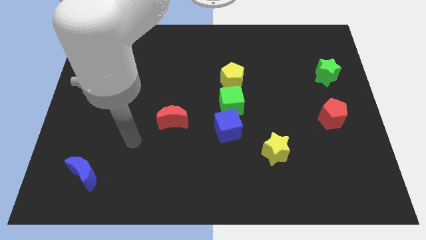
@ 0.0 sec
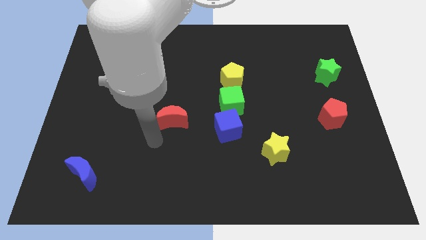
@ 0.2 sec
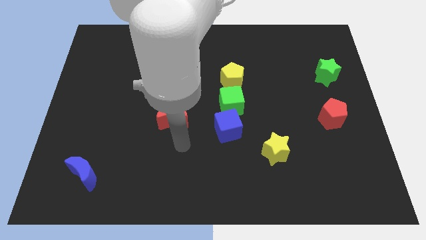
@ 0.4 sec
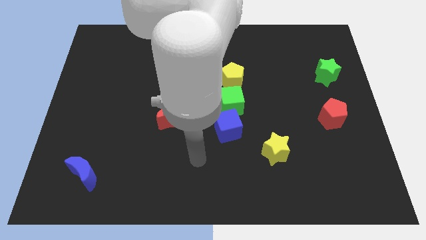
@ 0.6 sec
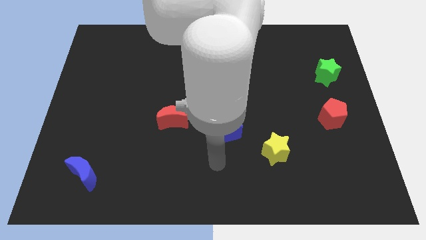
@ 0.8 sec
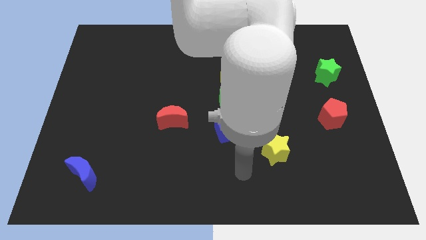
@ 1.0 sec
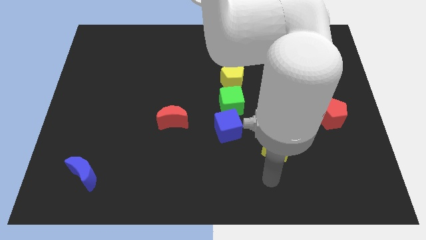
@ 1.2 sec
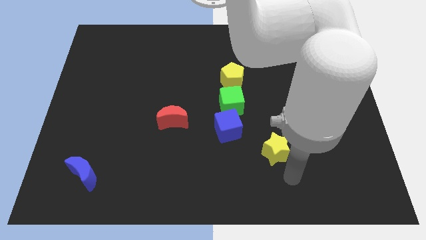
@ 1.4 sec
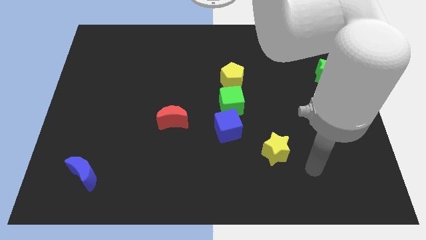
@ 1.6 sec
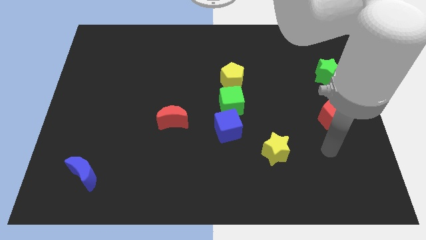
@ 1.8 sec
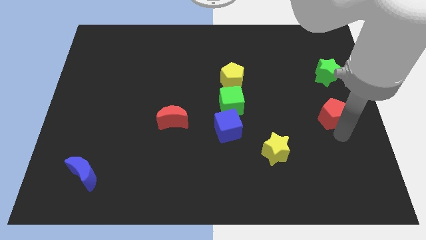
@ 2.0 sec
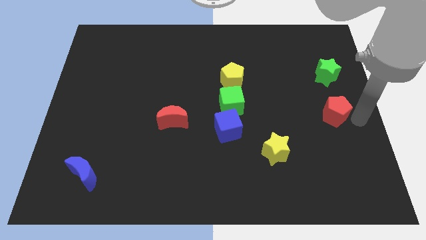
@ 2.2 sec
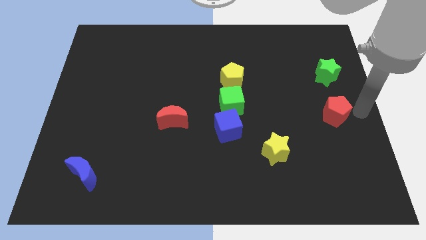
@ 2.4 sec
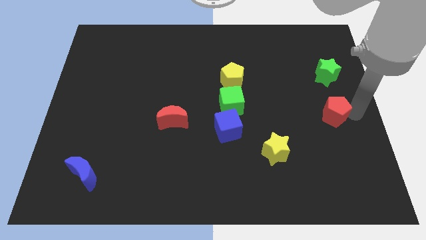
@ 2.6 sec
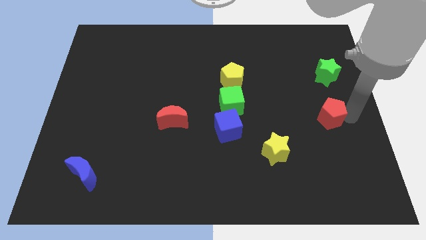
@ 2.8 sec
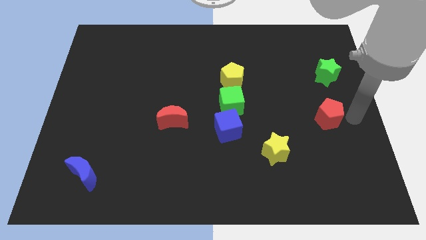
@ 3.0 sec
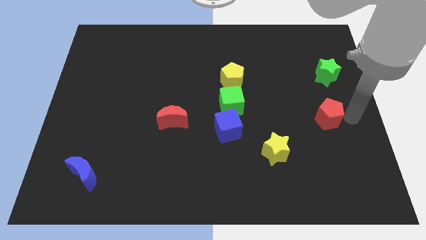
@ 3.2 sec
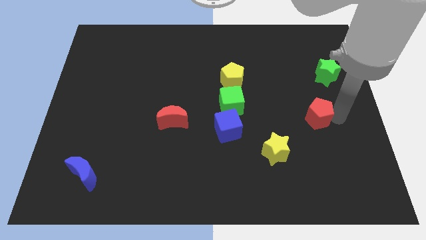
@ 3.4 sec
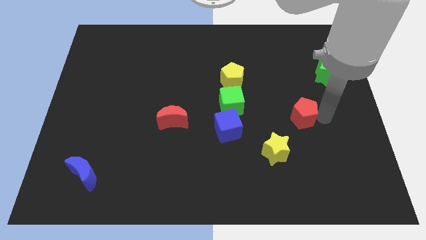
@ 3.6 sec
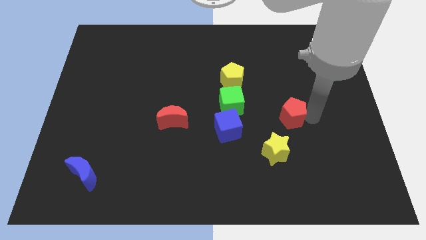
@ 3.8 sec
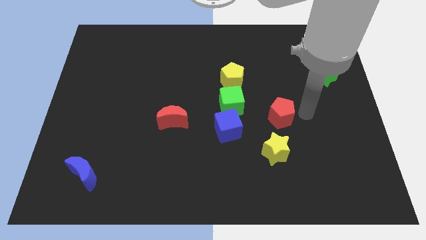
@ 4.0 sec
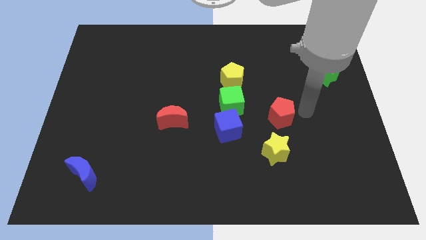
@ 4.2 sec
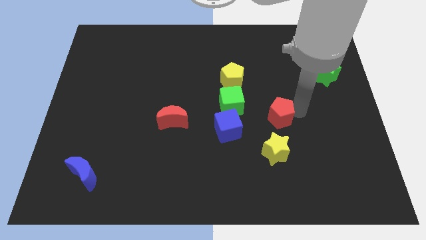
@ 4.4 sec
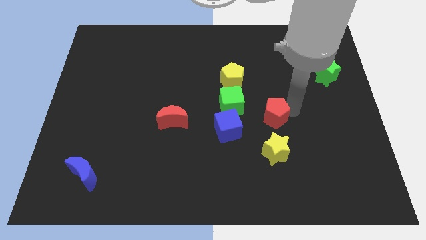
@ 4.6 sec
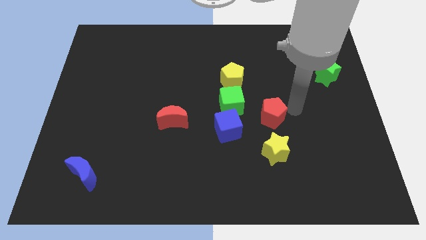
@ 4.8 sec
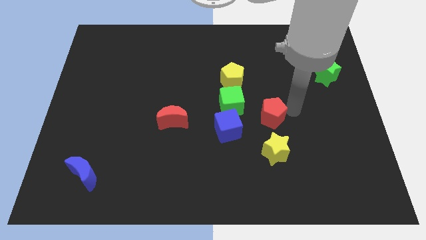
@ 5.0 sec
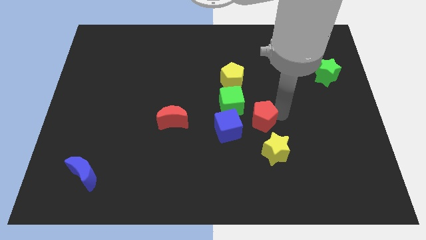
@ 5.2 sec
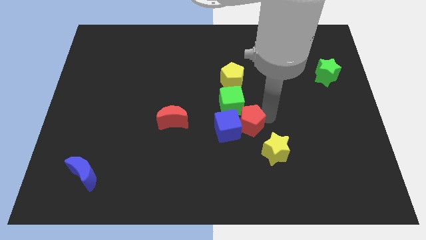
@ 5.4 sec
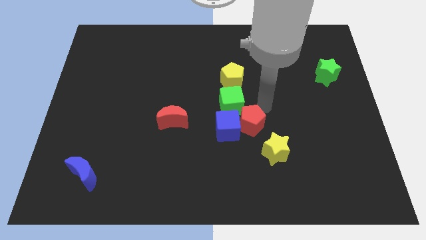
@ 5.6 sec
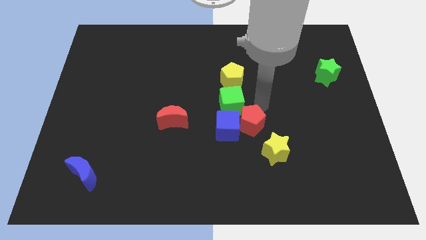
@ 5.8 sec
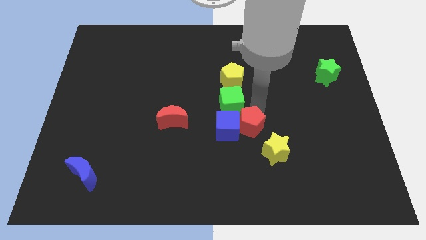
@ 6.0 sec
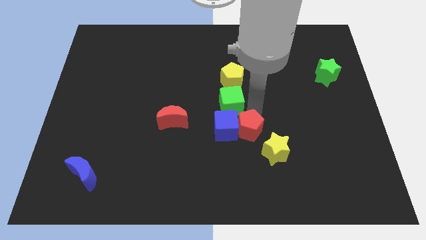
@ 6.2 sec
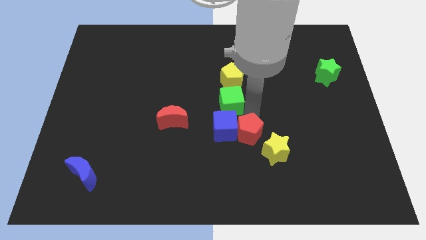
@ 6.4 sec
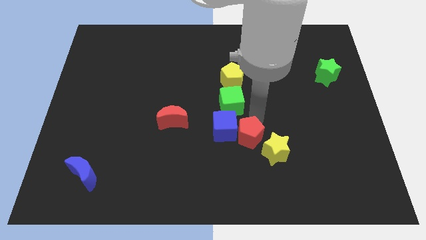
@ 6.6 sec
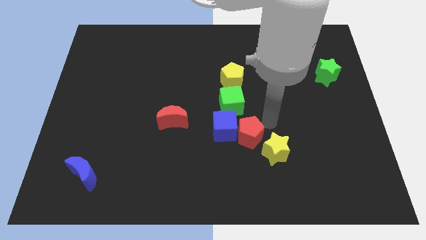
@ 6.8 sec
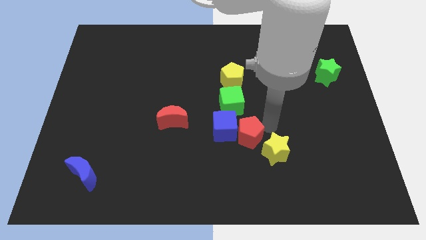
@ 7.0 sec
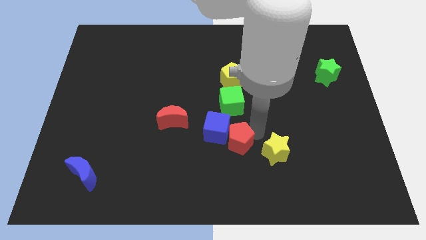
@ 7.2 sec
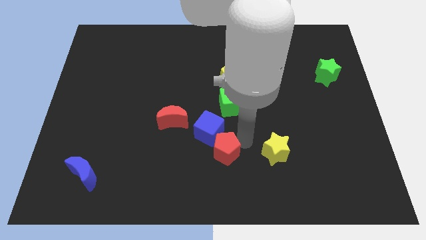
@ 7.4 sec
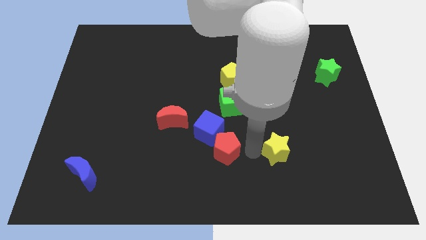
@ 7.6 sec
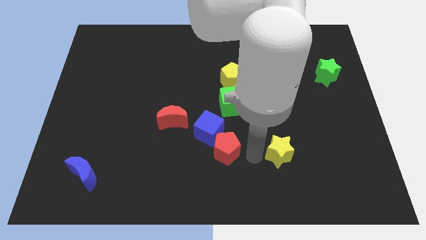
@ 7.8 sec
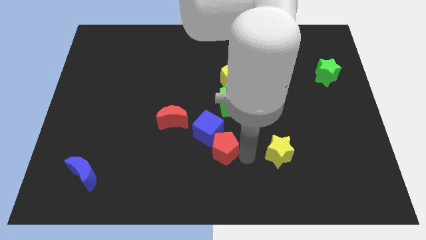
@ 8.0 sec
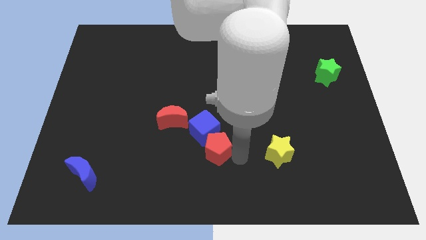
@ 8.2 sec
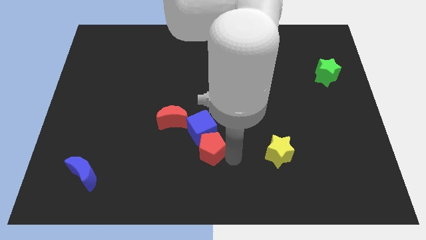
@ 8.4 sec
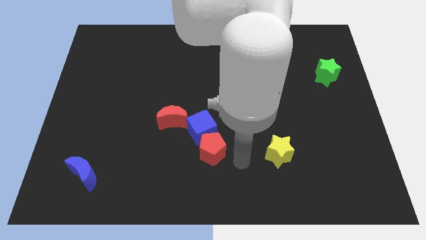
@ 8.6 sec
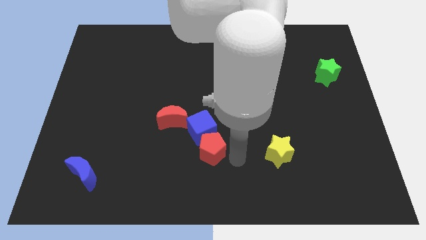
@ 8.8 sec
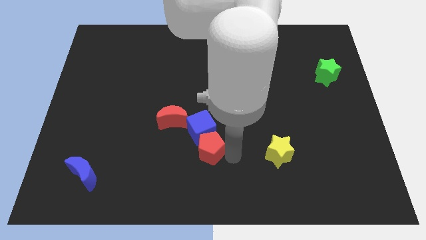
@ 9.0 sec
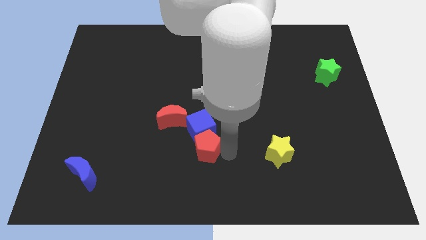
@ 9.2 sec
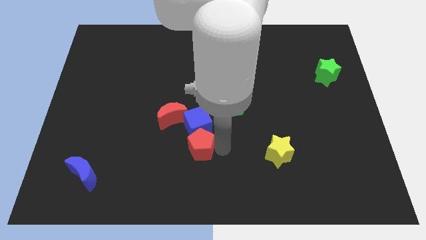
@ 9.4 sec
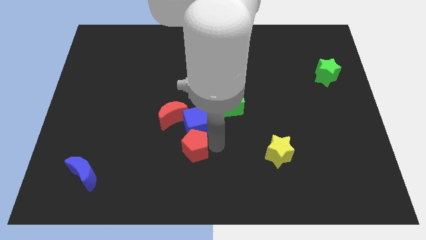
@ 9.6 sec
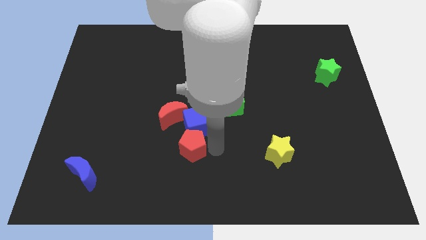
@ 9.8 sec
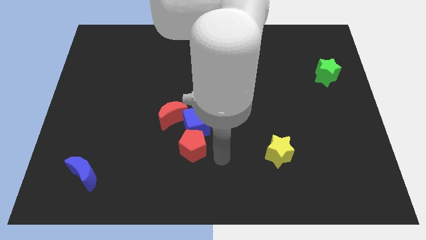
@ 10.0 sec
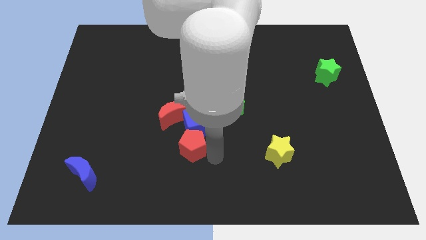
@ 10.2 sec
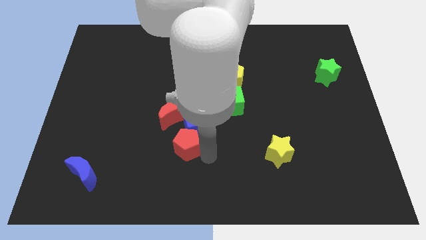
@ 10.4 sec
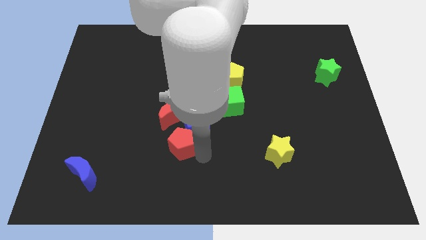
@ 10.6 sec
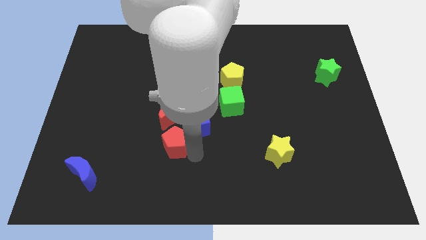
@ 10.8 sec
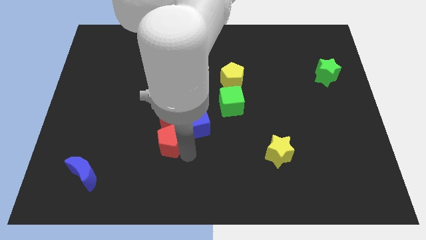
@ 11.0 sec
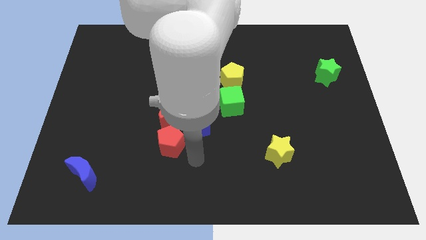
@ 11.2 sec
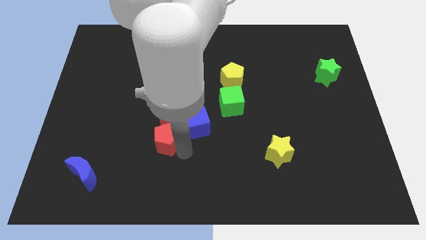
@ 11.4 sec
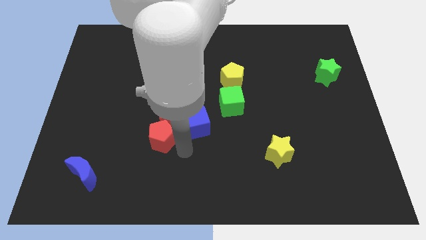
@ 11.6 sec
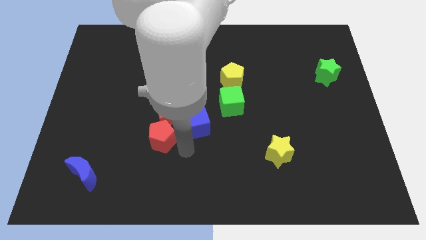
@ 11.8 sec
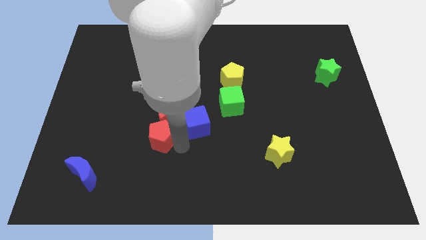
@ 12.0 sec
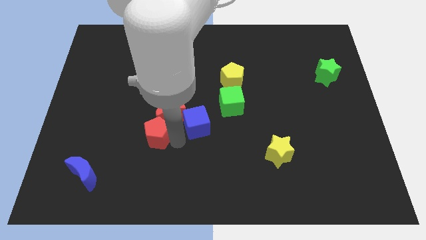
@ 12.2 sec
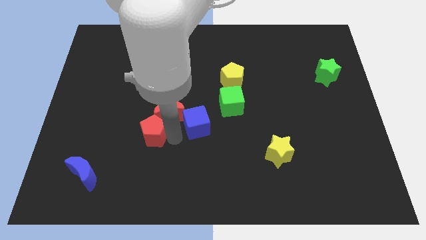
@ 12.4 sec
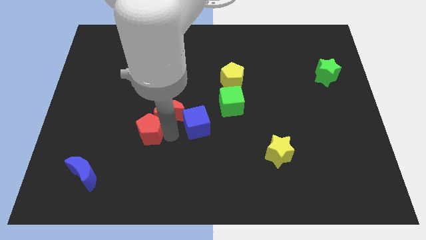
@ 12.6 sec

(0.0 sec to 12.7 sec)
push the red pentagon to the left of the red moon

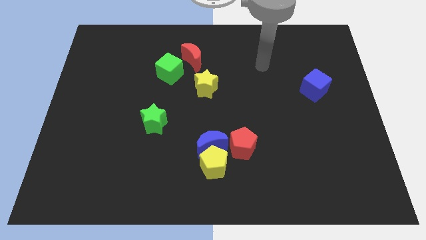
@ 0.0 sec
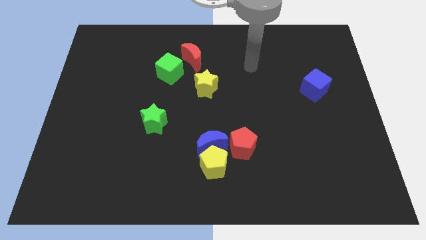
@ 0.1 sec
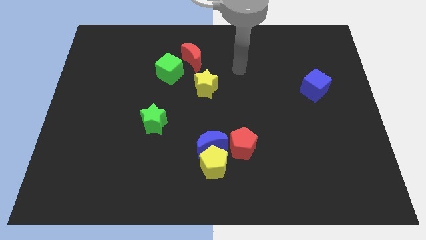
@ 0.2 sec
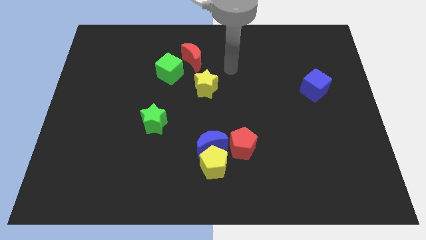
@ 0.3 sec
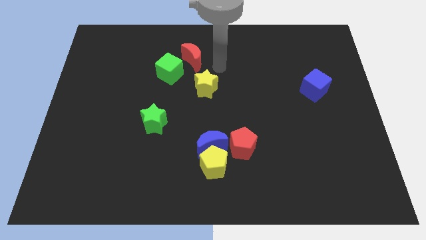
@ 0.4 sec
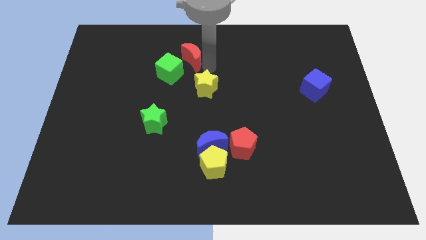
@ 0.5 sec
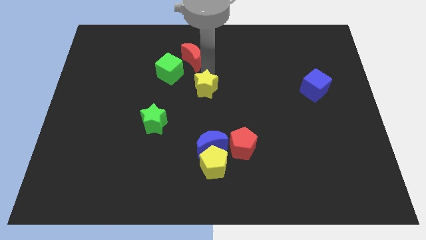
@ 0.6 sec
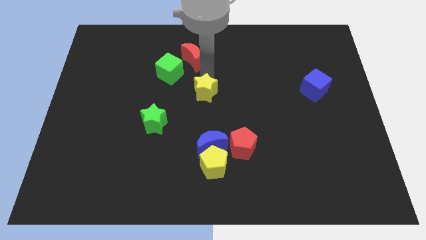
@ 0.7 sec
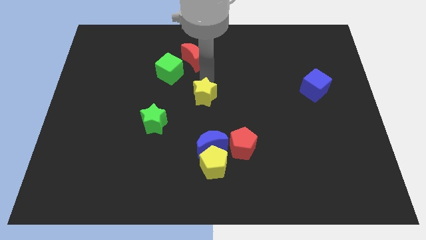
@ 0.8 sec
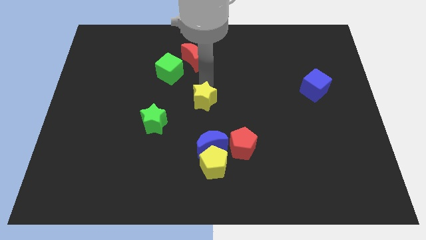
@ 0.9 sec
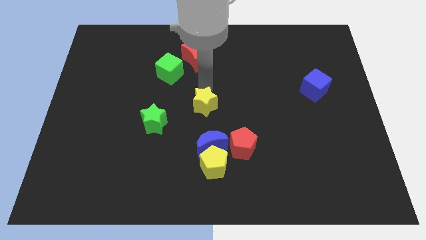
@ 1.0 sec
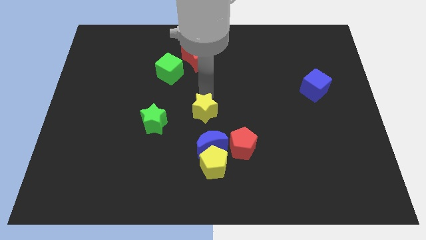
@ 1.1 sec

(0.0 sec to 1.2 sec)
put the yellow star right of the green star

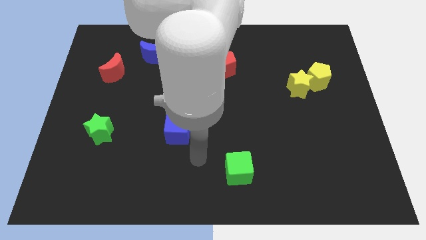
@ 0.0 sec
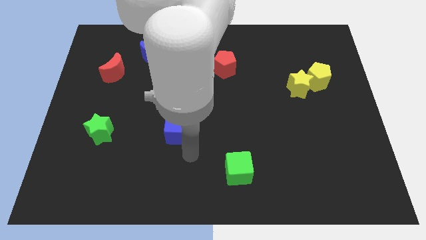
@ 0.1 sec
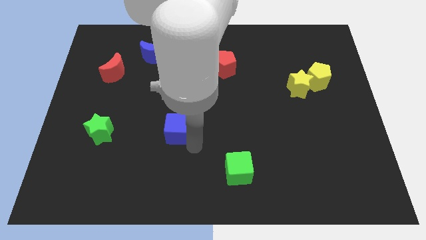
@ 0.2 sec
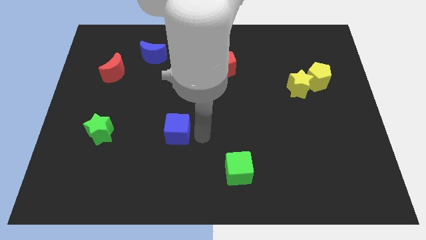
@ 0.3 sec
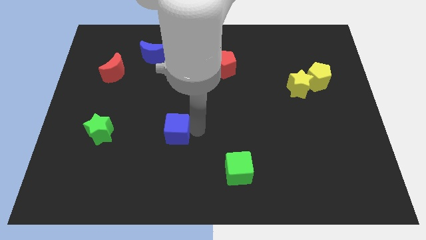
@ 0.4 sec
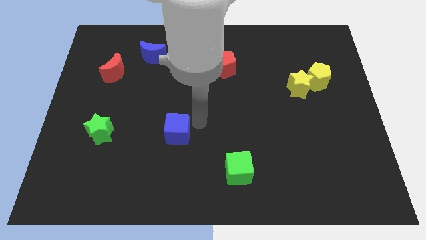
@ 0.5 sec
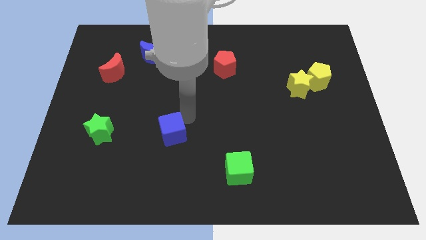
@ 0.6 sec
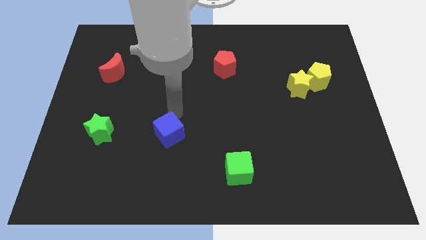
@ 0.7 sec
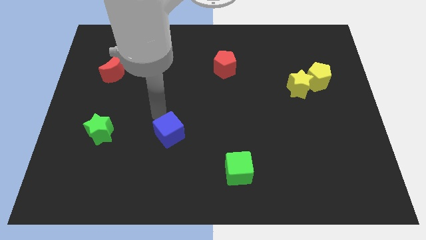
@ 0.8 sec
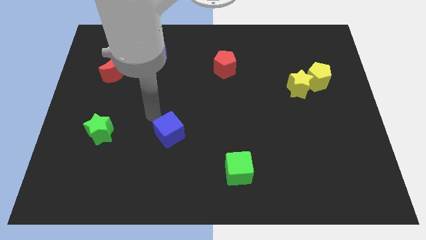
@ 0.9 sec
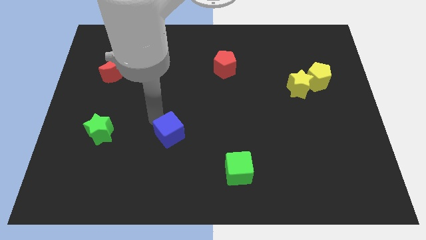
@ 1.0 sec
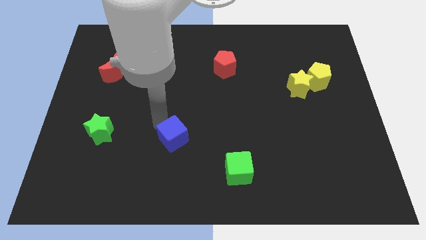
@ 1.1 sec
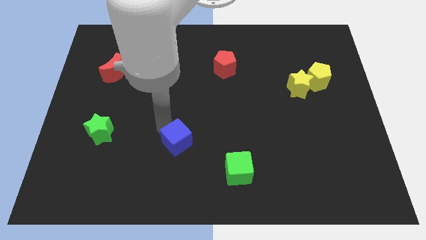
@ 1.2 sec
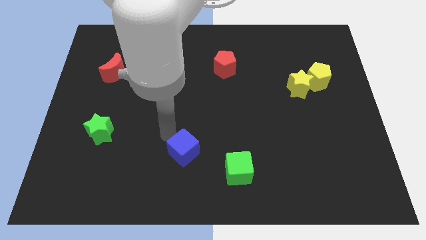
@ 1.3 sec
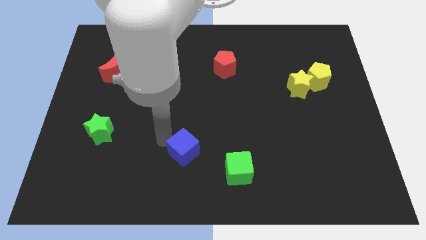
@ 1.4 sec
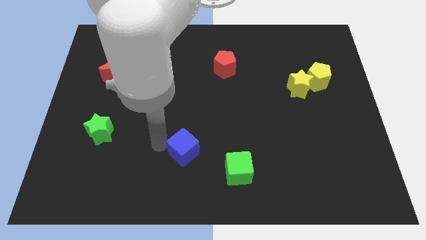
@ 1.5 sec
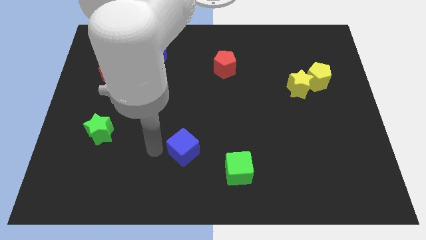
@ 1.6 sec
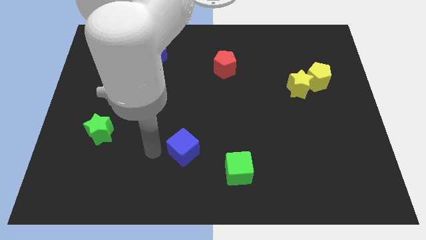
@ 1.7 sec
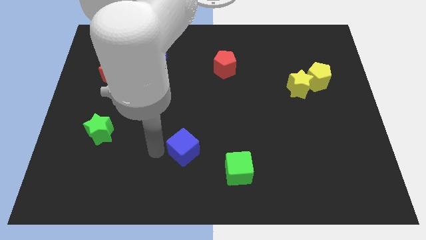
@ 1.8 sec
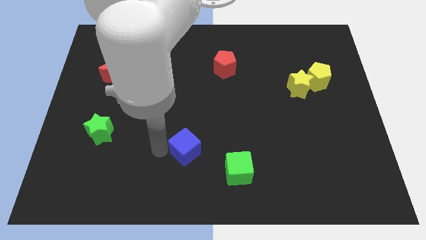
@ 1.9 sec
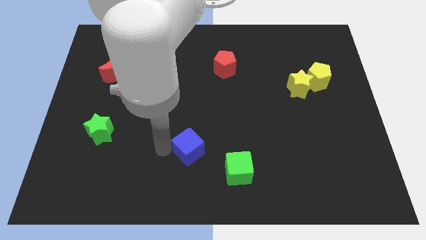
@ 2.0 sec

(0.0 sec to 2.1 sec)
push the blue cube to the top left side of the green cube
